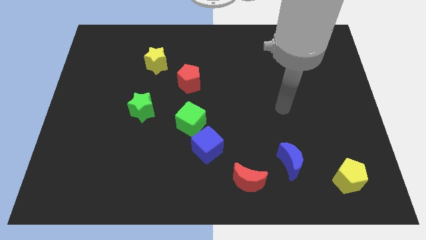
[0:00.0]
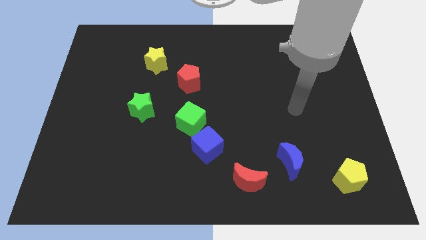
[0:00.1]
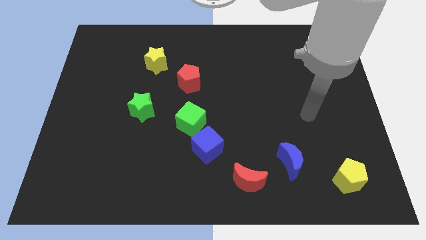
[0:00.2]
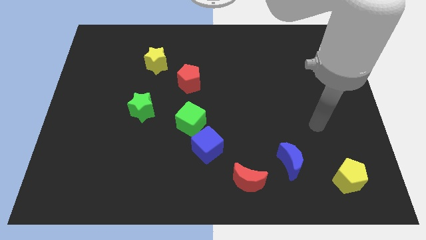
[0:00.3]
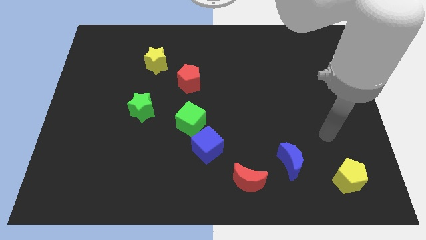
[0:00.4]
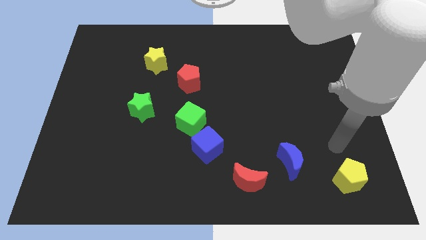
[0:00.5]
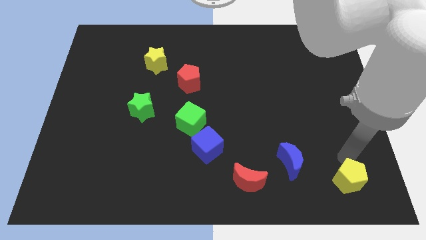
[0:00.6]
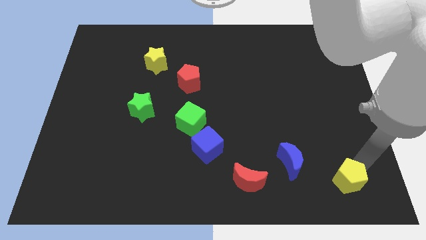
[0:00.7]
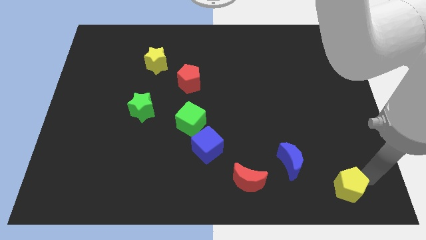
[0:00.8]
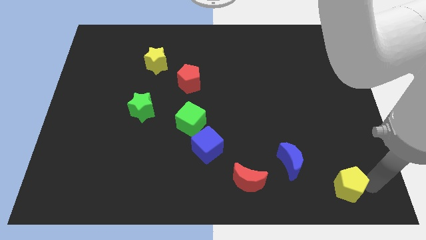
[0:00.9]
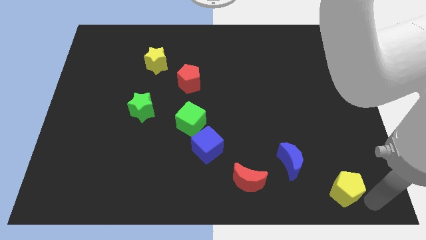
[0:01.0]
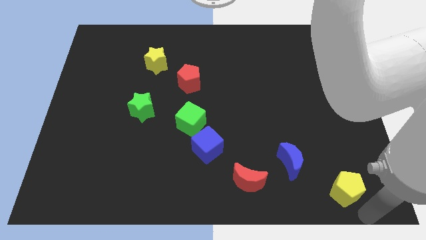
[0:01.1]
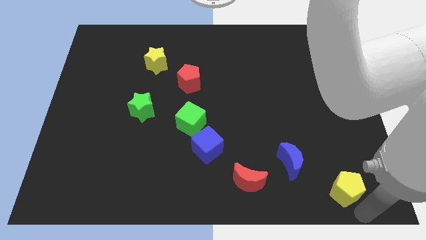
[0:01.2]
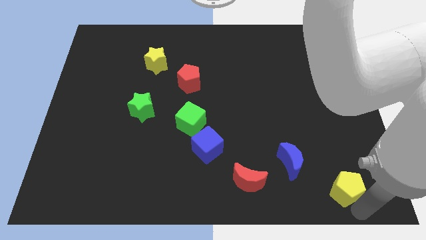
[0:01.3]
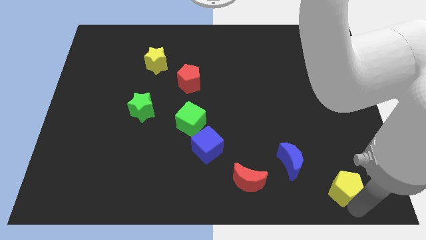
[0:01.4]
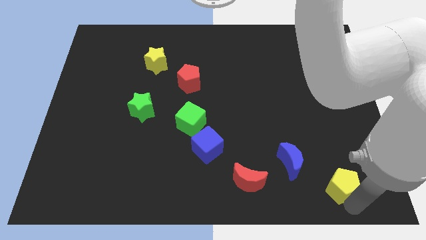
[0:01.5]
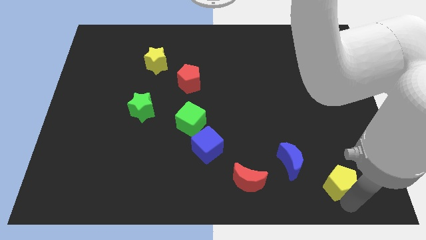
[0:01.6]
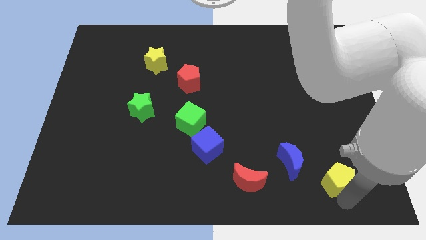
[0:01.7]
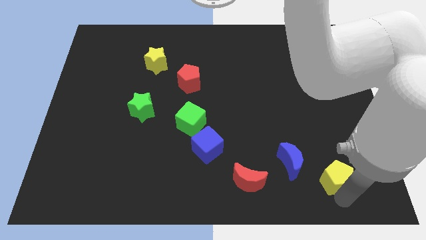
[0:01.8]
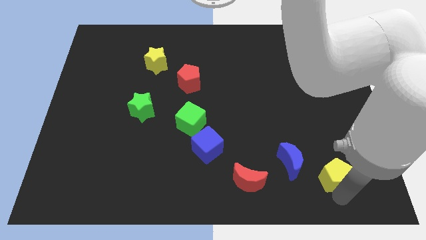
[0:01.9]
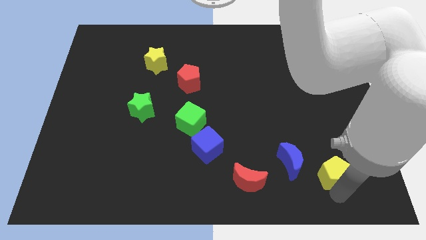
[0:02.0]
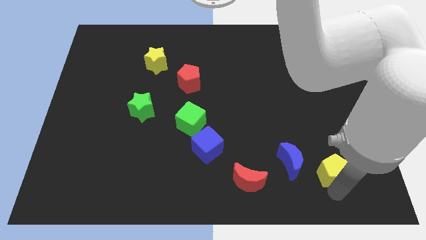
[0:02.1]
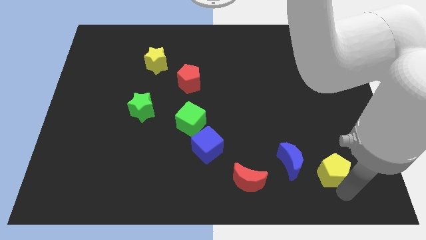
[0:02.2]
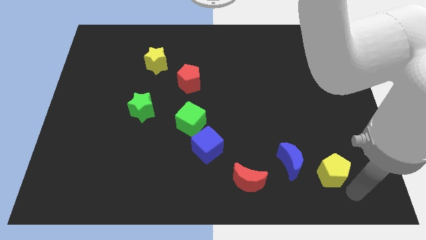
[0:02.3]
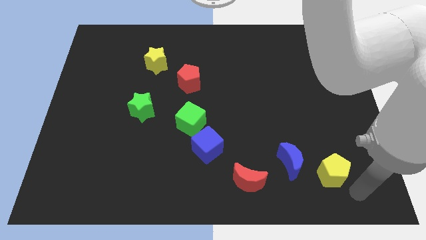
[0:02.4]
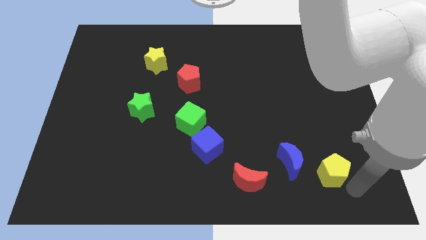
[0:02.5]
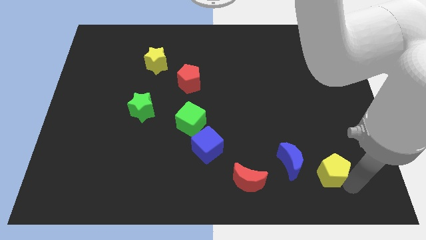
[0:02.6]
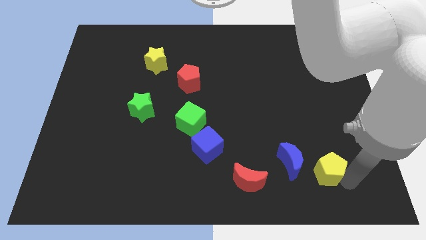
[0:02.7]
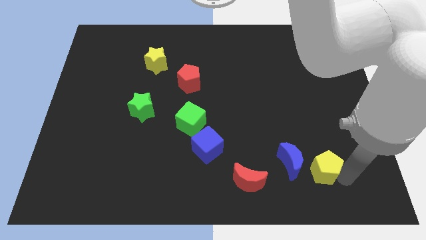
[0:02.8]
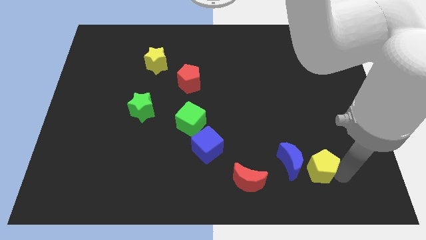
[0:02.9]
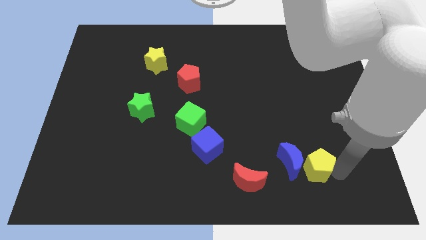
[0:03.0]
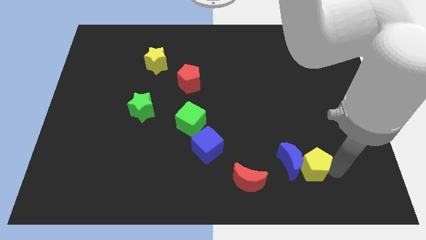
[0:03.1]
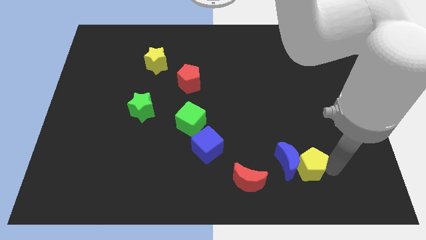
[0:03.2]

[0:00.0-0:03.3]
slightly slide the yellow pentagon upwards and then to the left

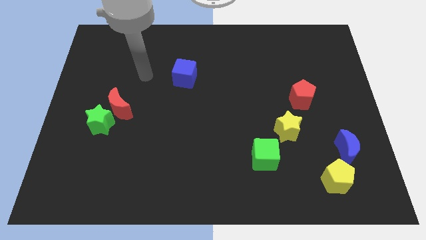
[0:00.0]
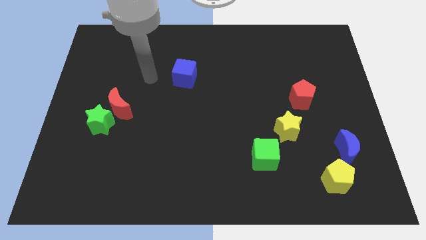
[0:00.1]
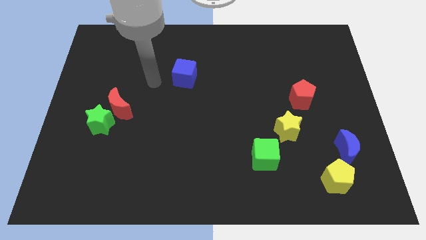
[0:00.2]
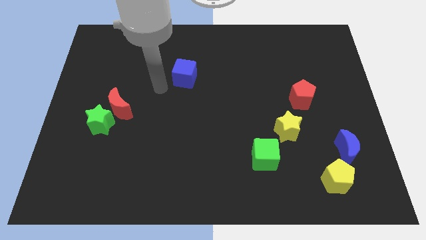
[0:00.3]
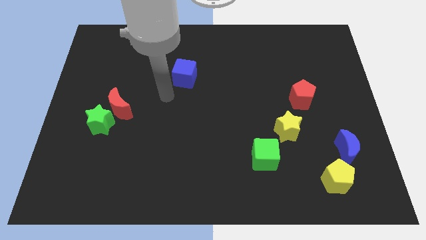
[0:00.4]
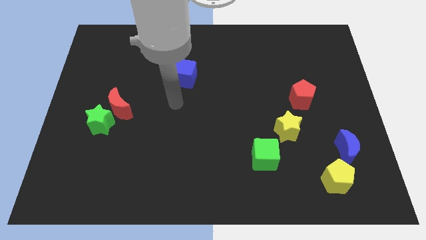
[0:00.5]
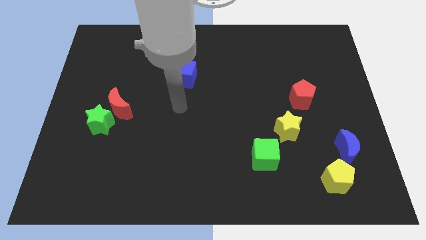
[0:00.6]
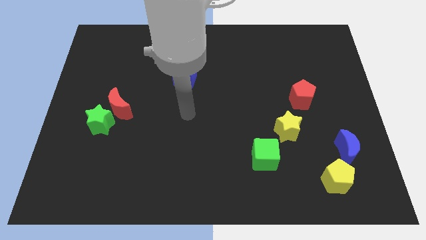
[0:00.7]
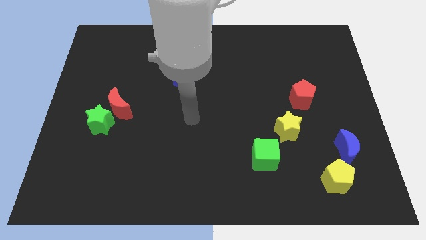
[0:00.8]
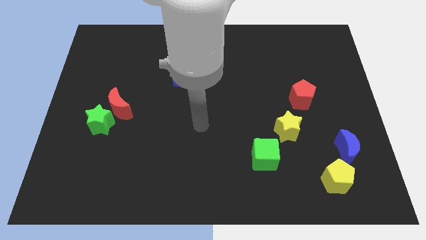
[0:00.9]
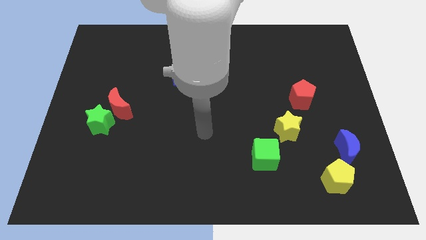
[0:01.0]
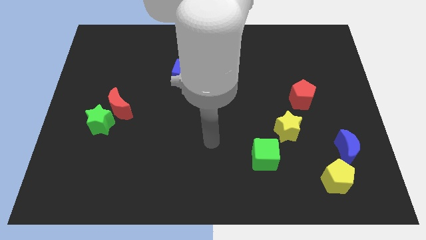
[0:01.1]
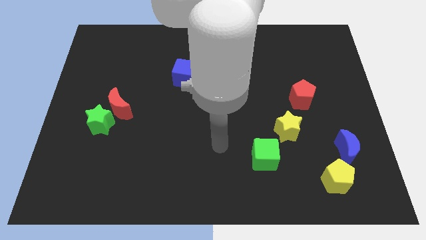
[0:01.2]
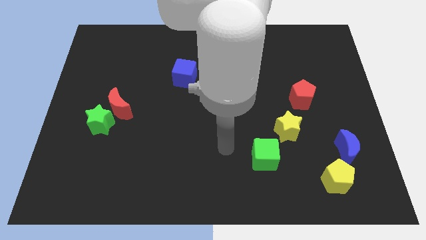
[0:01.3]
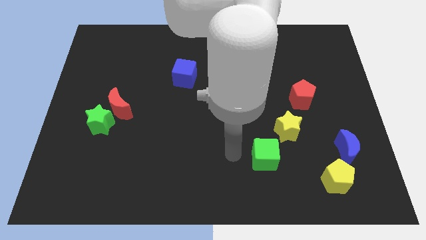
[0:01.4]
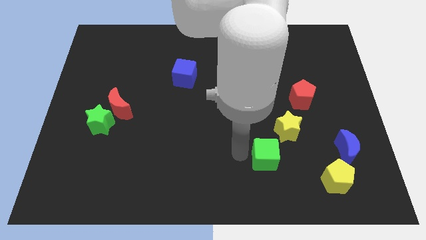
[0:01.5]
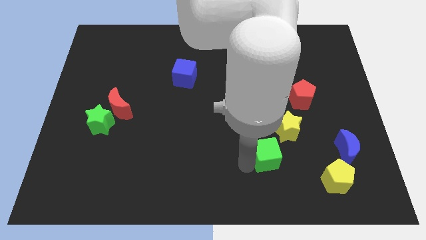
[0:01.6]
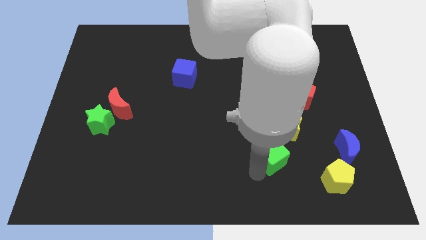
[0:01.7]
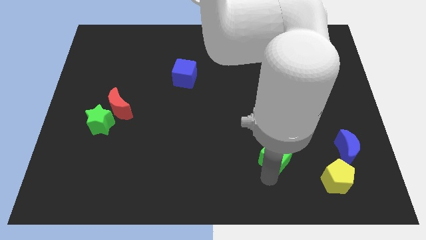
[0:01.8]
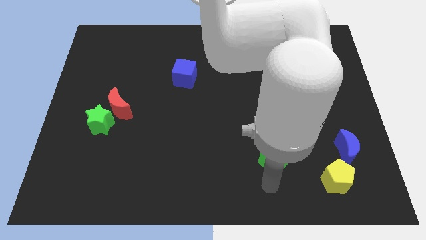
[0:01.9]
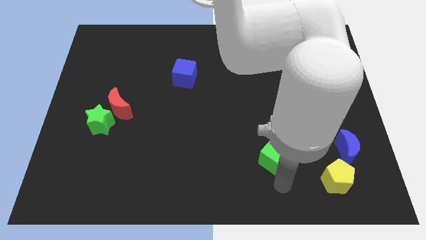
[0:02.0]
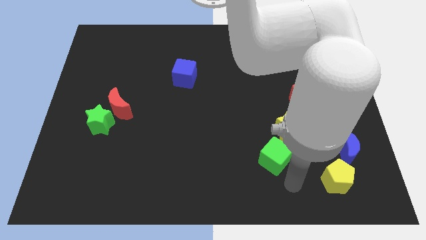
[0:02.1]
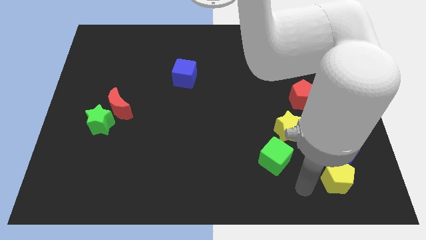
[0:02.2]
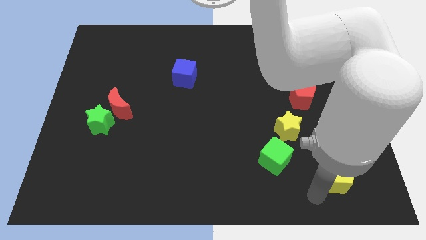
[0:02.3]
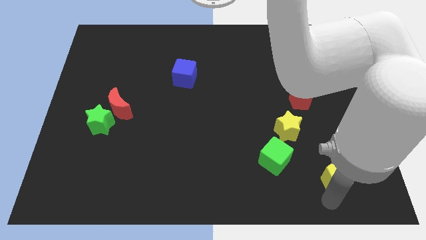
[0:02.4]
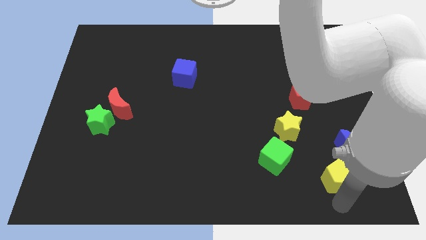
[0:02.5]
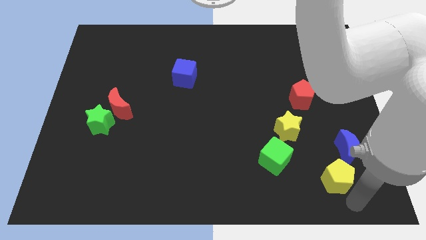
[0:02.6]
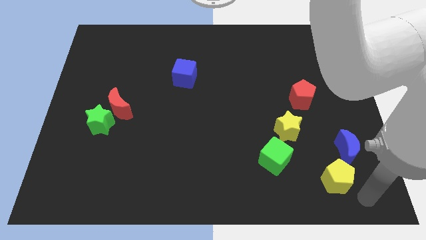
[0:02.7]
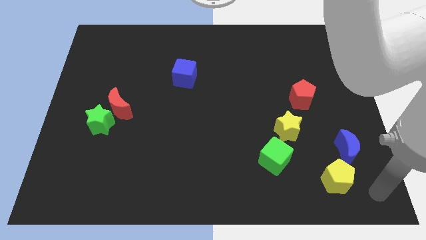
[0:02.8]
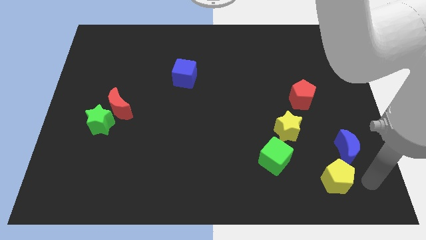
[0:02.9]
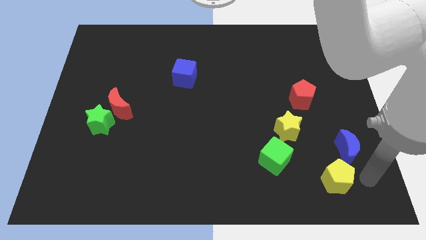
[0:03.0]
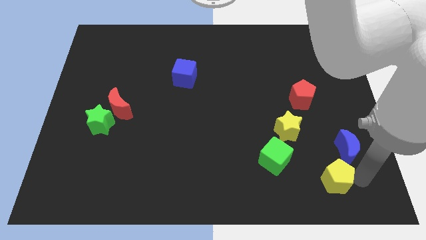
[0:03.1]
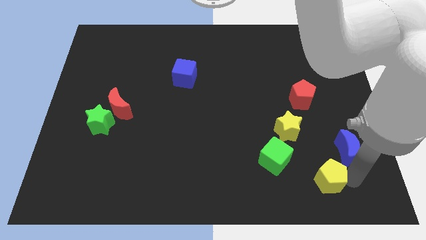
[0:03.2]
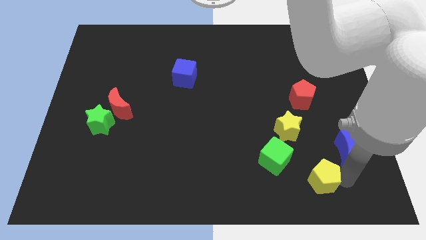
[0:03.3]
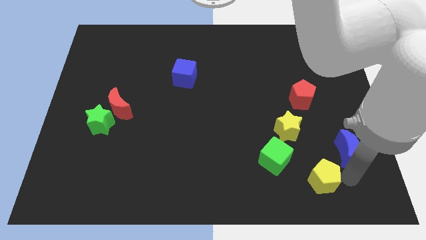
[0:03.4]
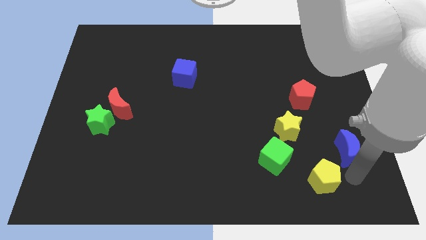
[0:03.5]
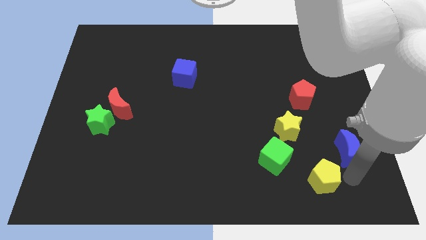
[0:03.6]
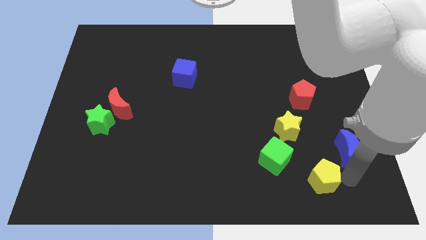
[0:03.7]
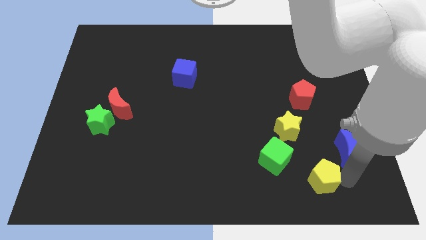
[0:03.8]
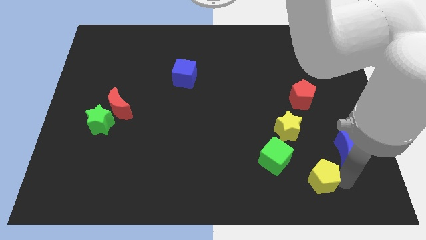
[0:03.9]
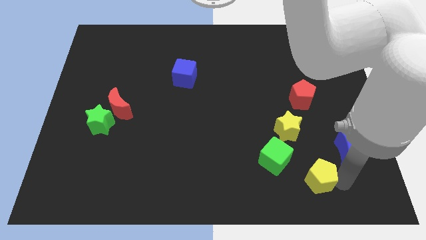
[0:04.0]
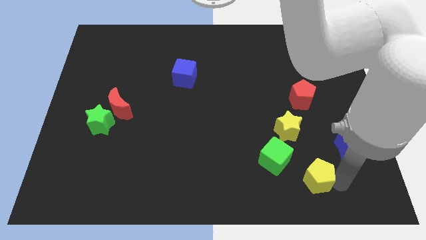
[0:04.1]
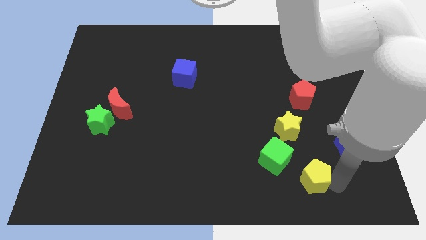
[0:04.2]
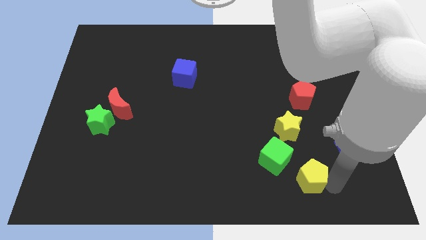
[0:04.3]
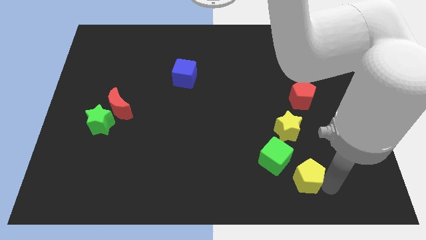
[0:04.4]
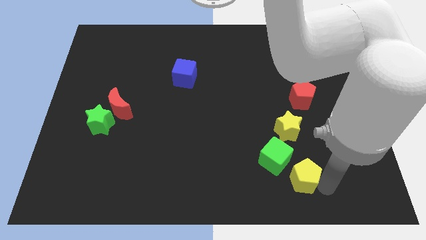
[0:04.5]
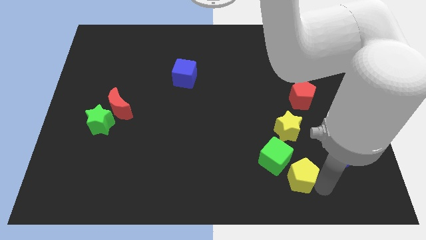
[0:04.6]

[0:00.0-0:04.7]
slightly push the yellow pentagon to the left

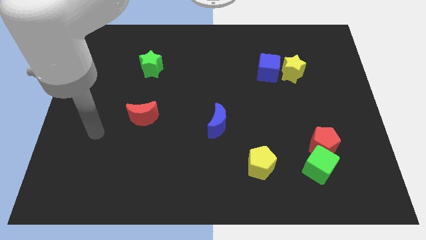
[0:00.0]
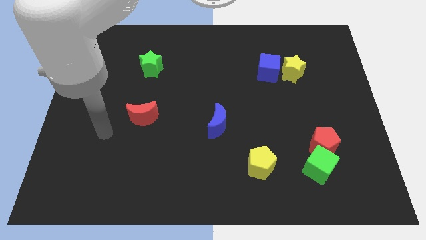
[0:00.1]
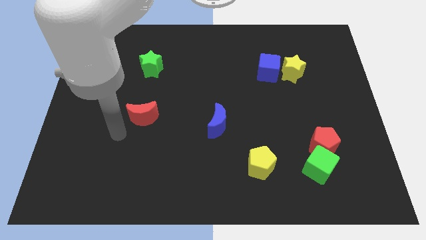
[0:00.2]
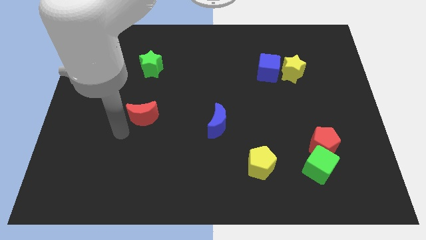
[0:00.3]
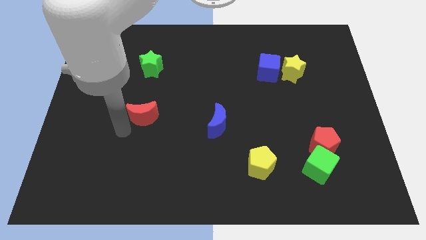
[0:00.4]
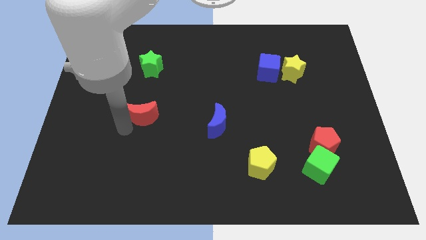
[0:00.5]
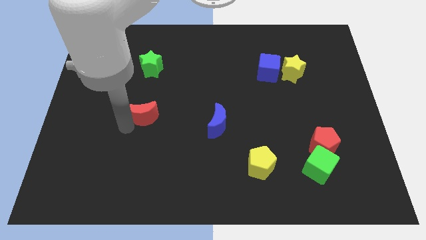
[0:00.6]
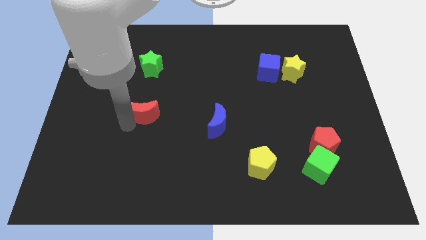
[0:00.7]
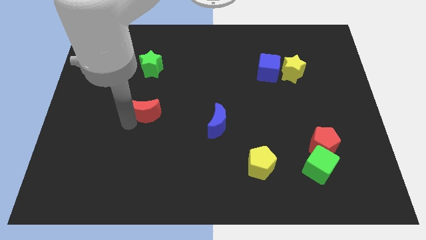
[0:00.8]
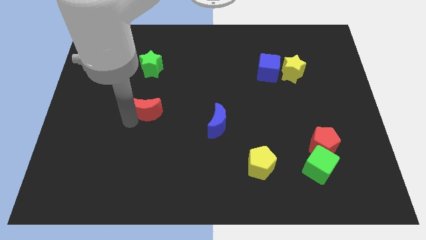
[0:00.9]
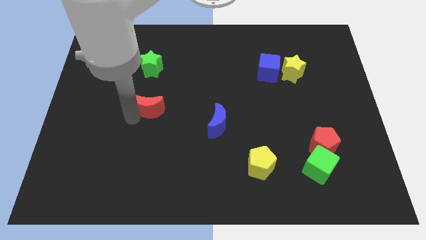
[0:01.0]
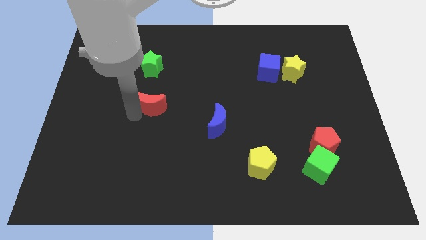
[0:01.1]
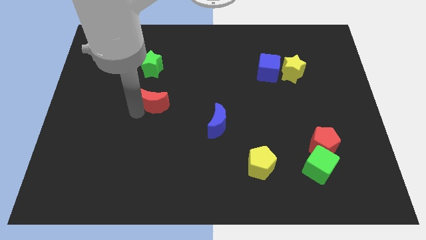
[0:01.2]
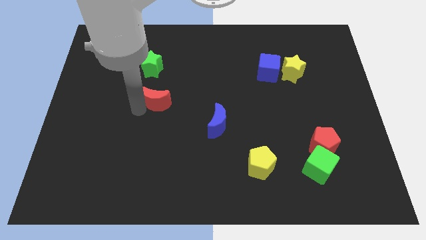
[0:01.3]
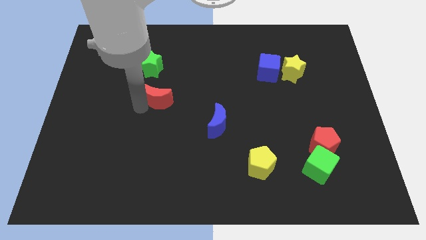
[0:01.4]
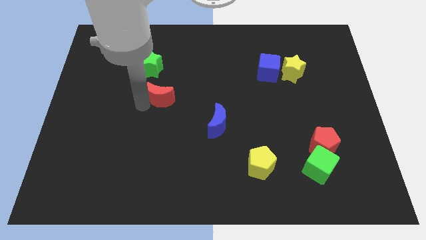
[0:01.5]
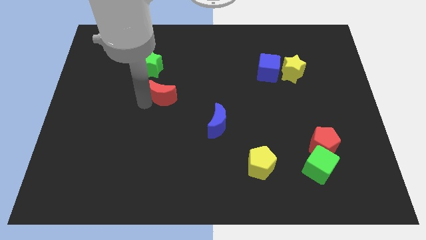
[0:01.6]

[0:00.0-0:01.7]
move the red moon a little up and right
